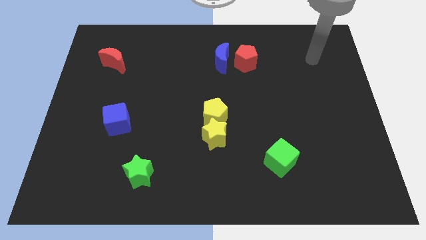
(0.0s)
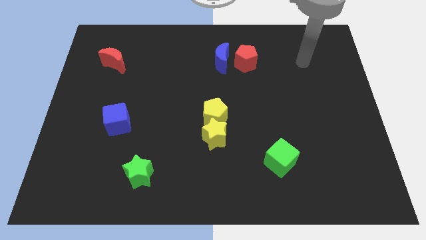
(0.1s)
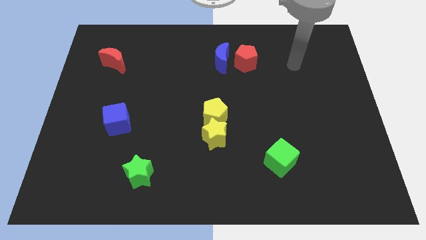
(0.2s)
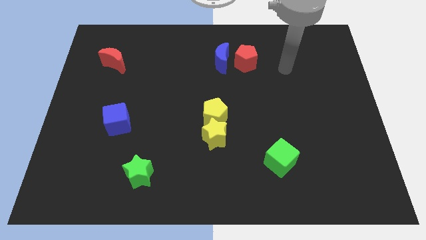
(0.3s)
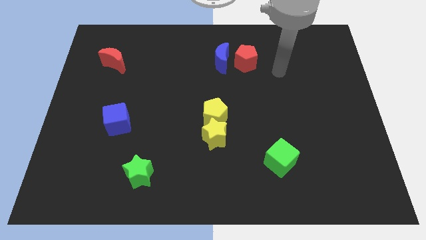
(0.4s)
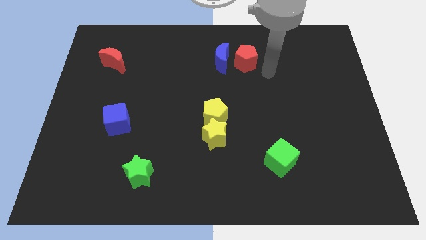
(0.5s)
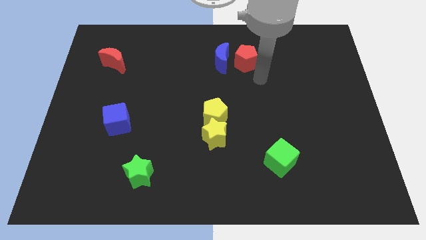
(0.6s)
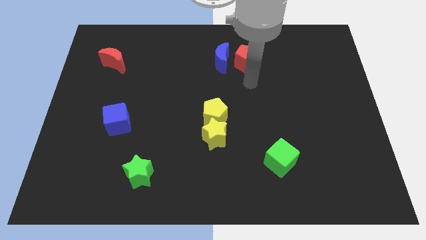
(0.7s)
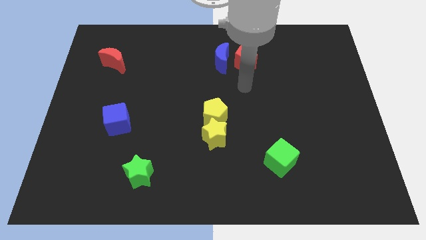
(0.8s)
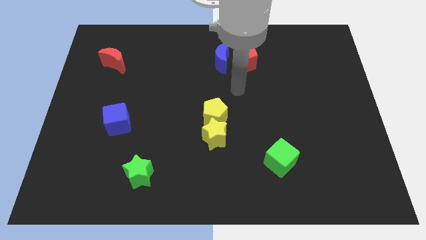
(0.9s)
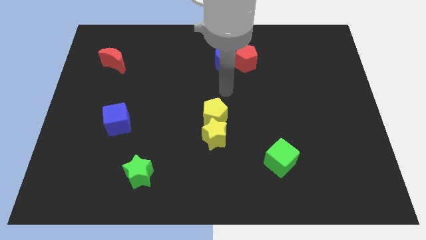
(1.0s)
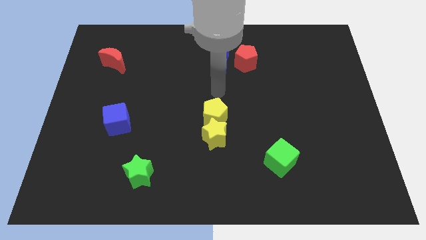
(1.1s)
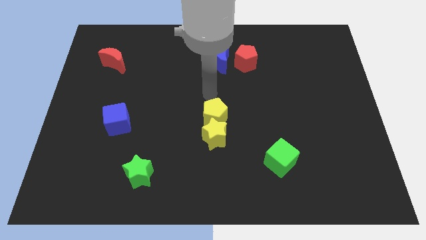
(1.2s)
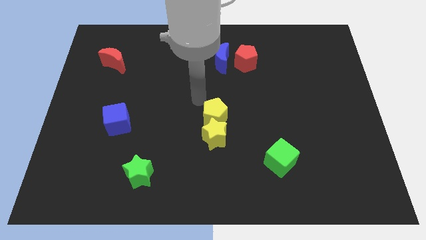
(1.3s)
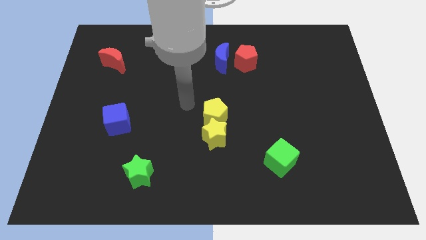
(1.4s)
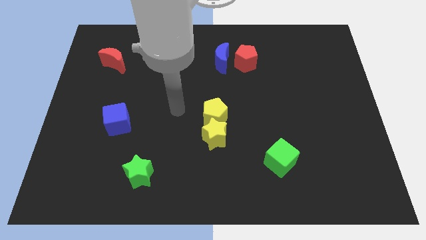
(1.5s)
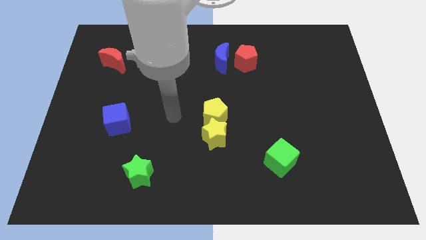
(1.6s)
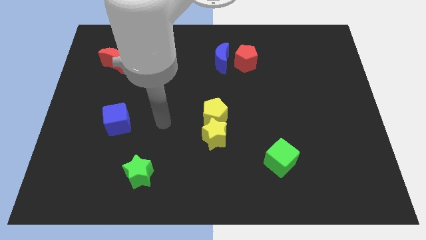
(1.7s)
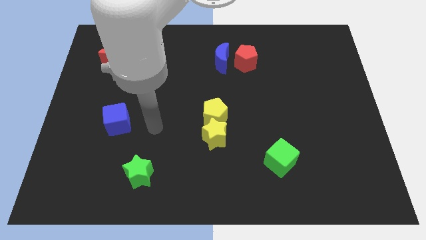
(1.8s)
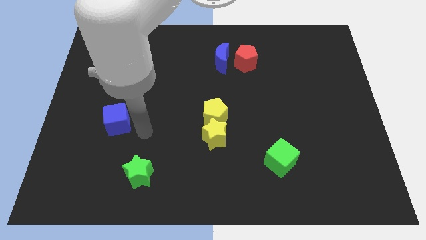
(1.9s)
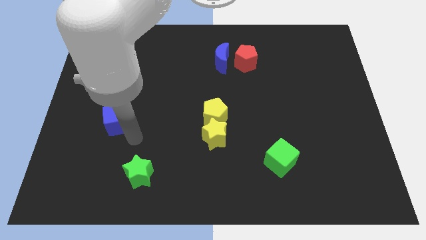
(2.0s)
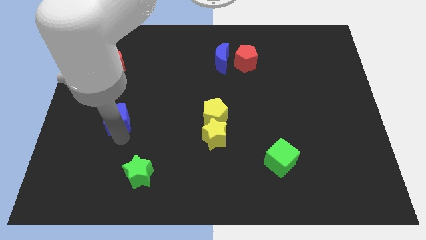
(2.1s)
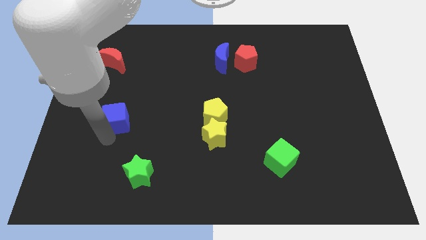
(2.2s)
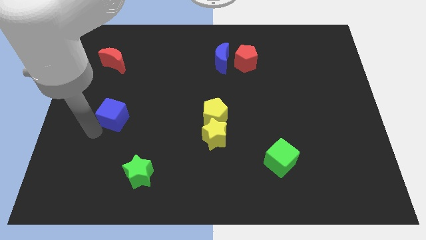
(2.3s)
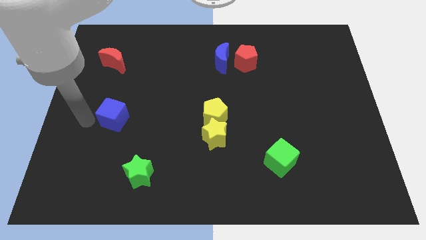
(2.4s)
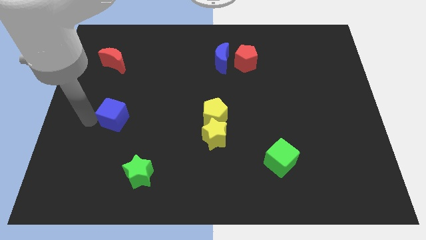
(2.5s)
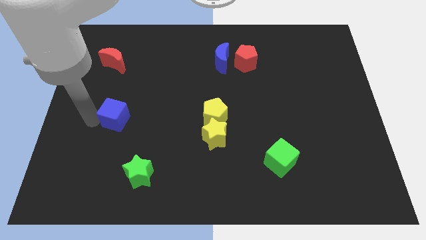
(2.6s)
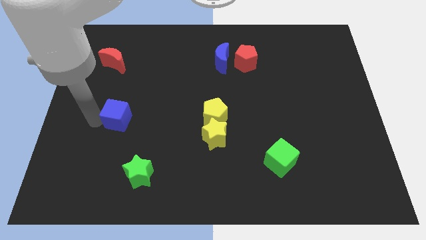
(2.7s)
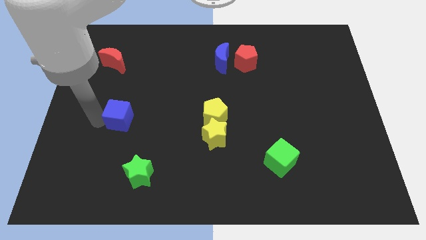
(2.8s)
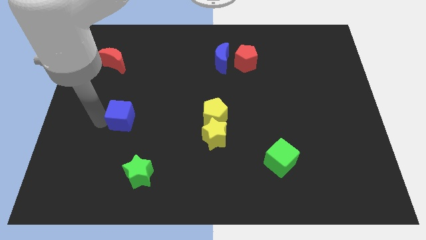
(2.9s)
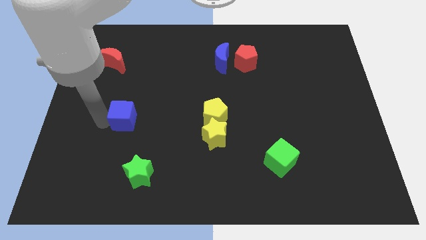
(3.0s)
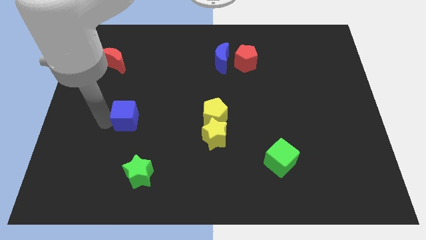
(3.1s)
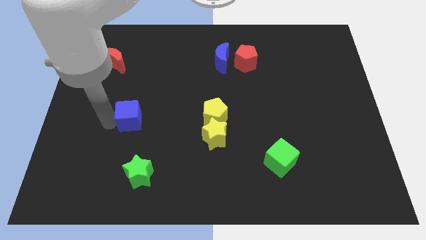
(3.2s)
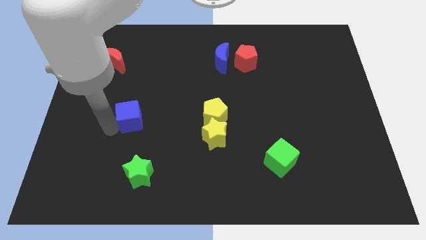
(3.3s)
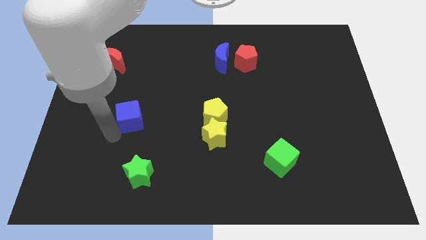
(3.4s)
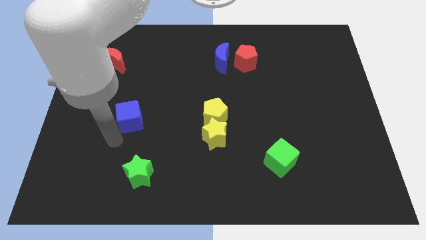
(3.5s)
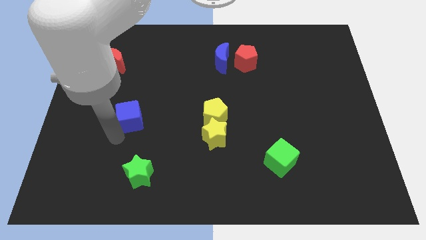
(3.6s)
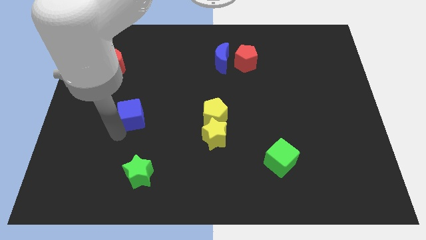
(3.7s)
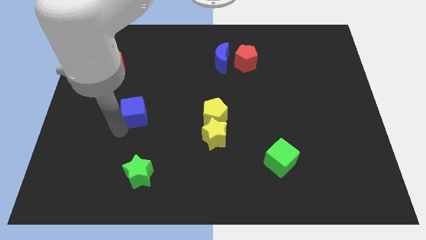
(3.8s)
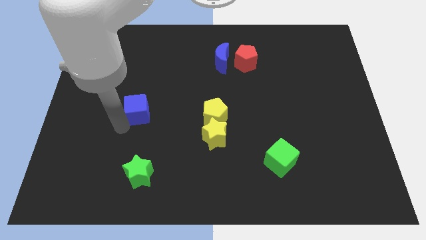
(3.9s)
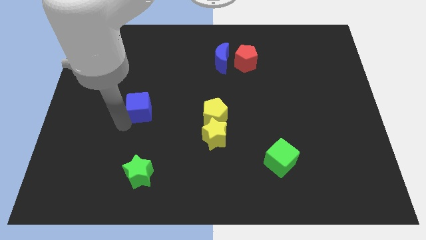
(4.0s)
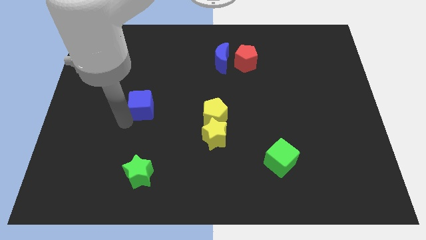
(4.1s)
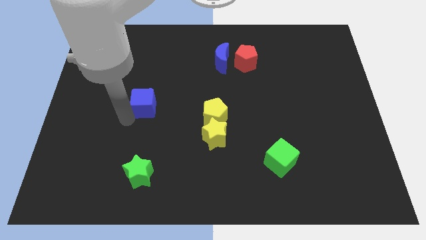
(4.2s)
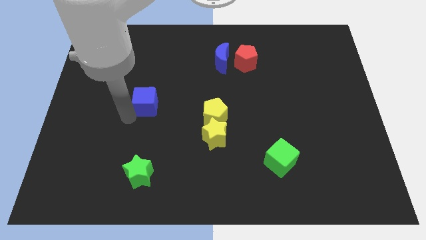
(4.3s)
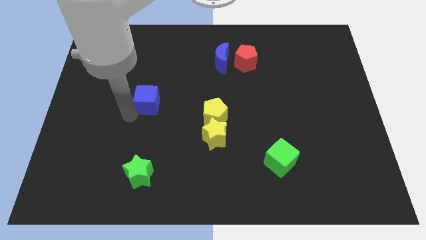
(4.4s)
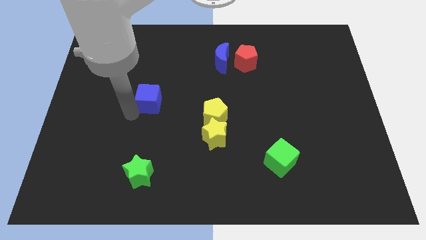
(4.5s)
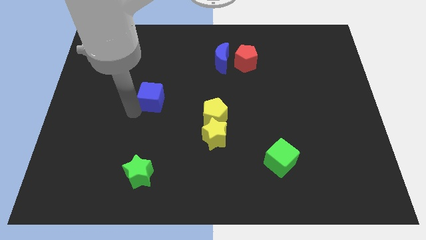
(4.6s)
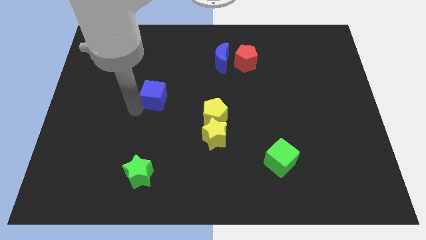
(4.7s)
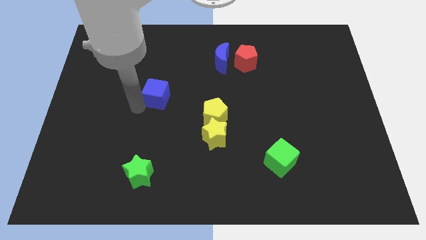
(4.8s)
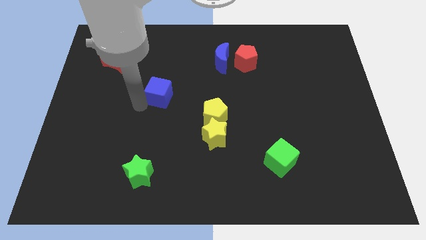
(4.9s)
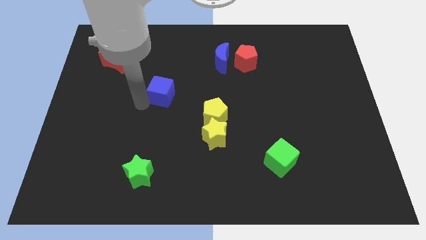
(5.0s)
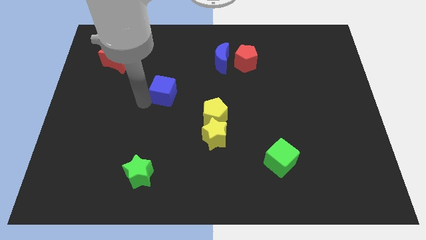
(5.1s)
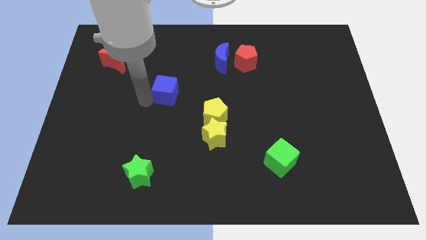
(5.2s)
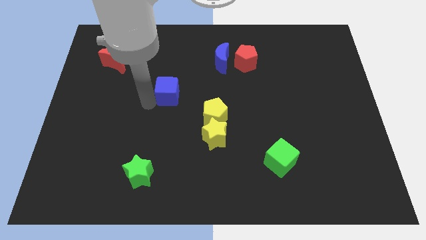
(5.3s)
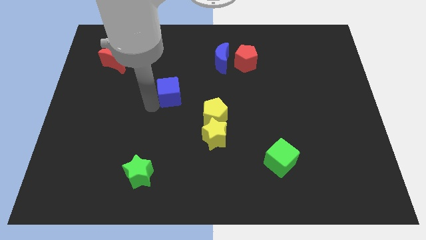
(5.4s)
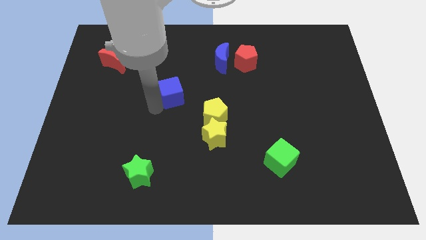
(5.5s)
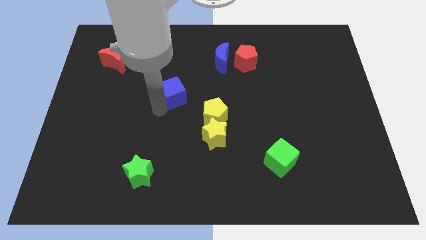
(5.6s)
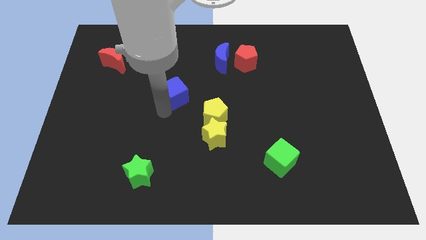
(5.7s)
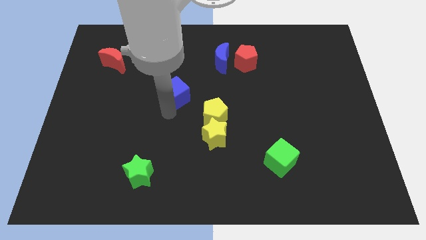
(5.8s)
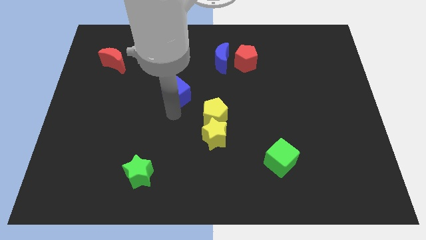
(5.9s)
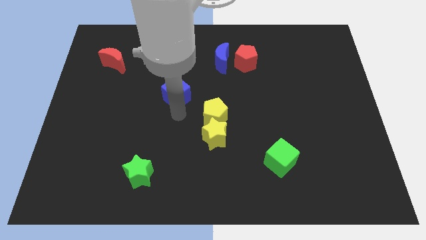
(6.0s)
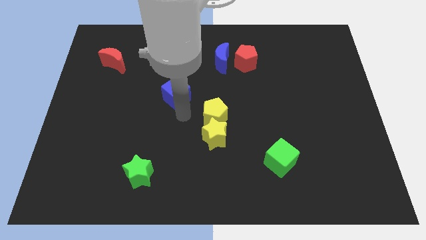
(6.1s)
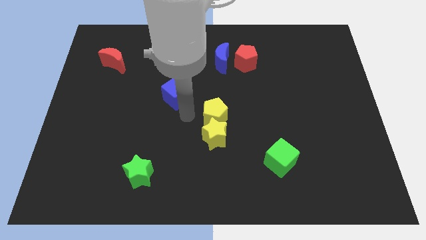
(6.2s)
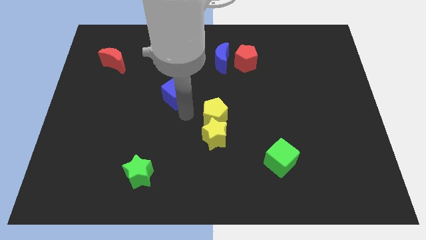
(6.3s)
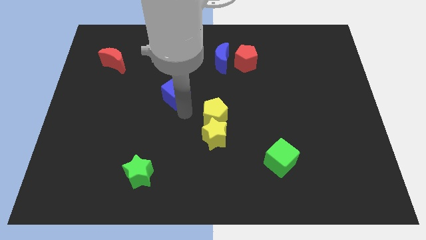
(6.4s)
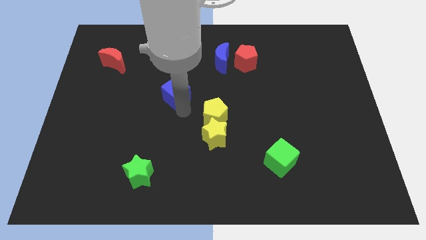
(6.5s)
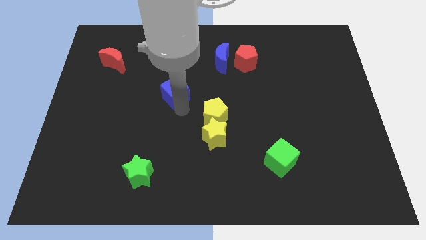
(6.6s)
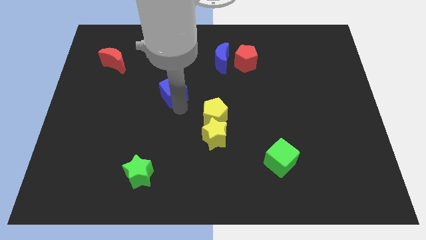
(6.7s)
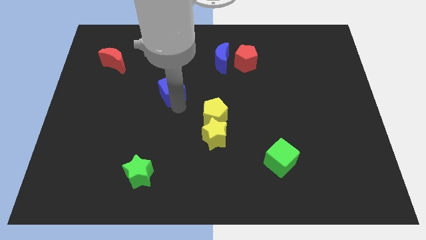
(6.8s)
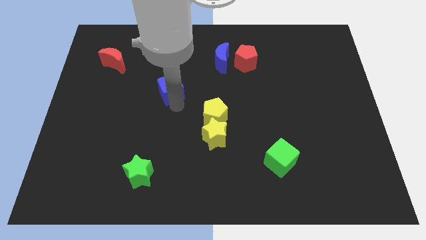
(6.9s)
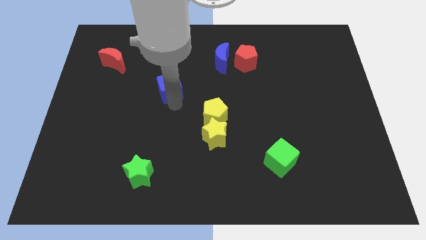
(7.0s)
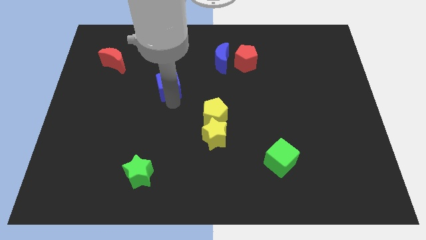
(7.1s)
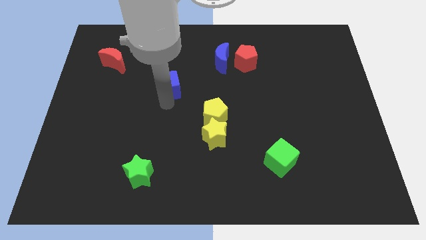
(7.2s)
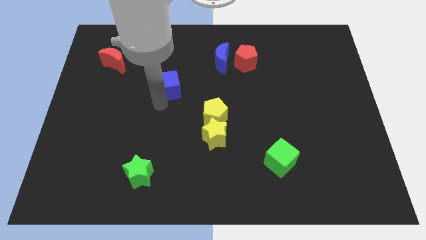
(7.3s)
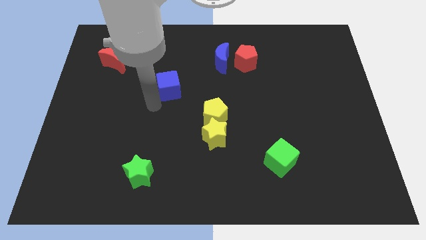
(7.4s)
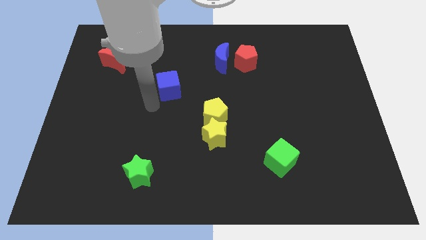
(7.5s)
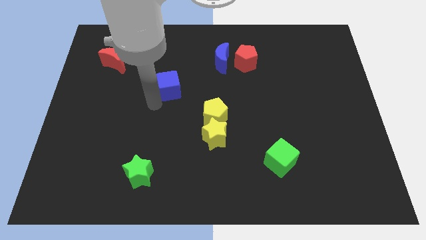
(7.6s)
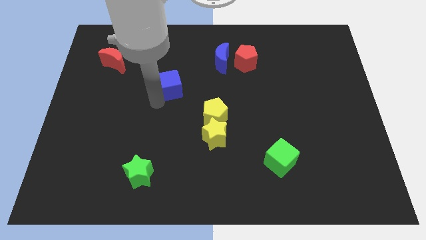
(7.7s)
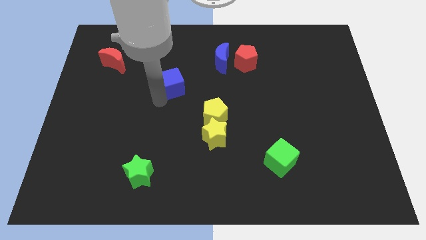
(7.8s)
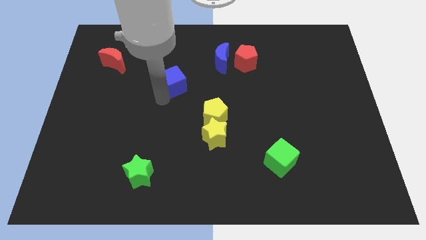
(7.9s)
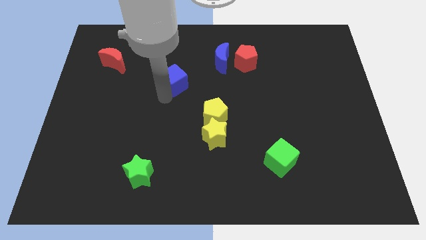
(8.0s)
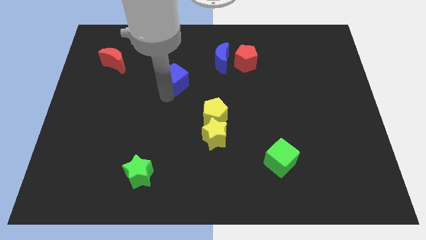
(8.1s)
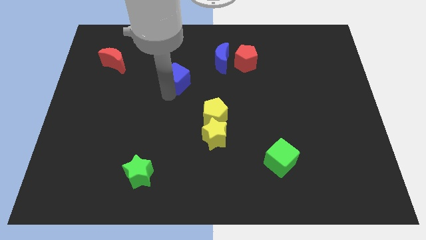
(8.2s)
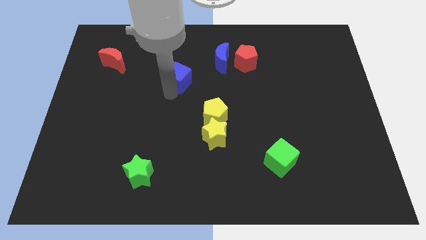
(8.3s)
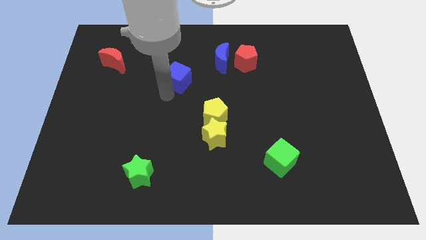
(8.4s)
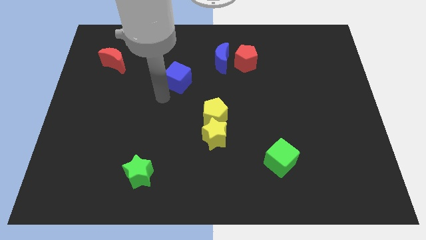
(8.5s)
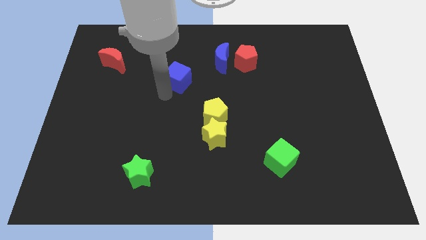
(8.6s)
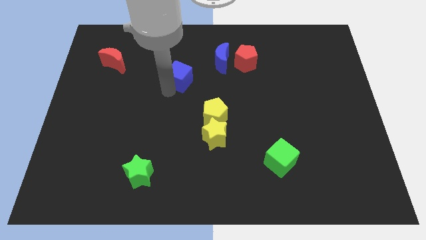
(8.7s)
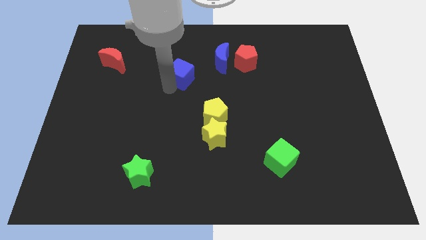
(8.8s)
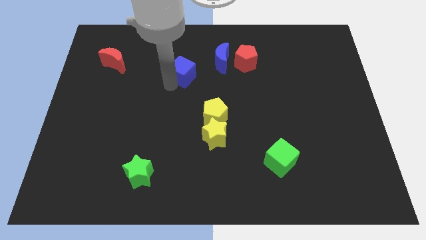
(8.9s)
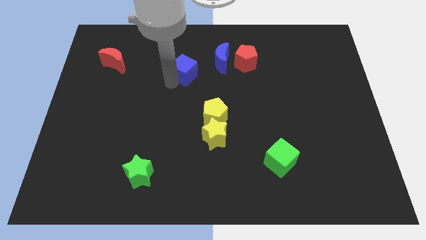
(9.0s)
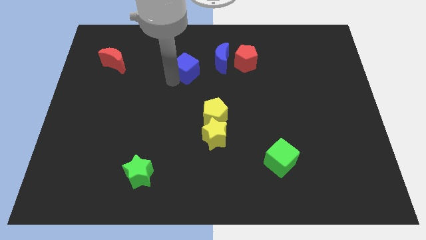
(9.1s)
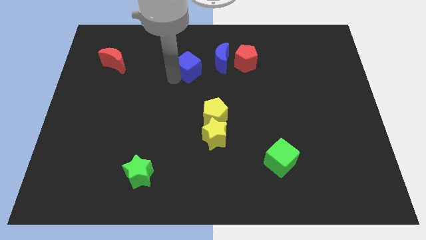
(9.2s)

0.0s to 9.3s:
slide the blue cube to the left side of the red pentagon
